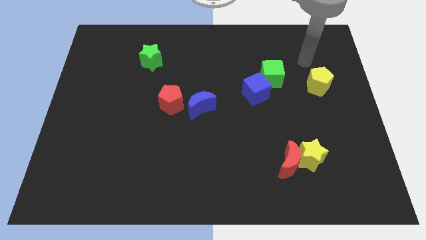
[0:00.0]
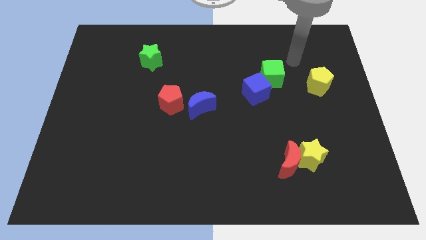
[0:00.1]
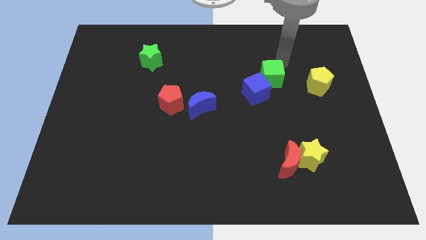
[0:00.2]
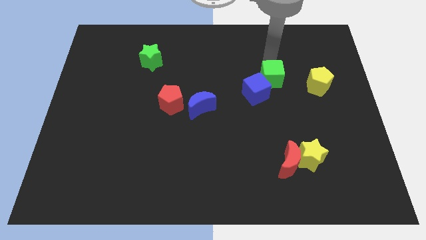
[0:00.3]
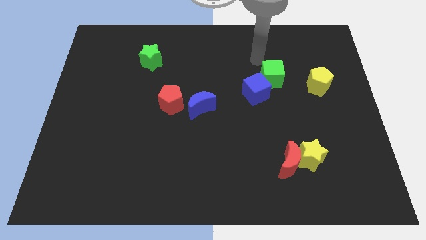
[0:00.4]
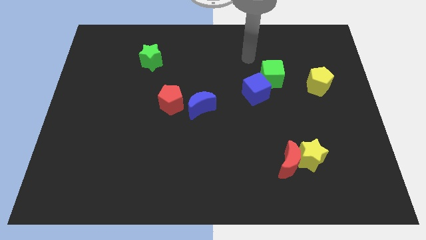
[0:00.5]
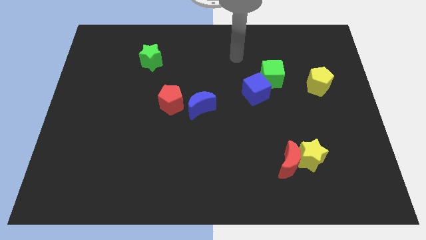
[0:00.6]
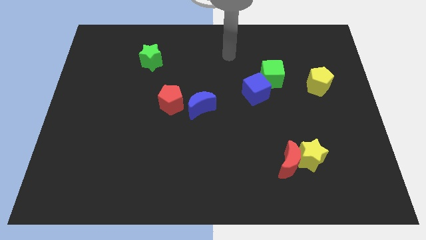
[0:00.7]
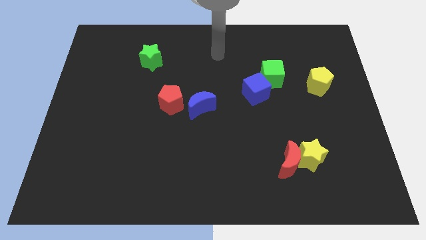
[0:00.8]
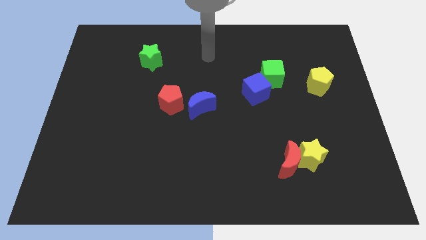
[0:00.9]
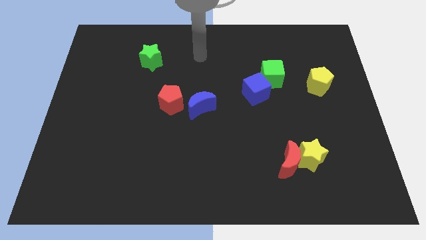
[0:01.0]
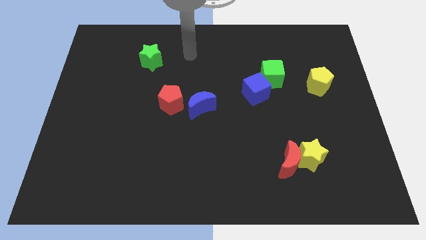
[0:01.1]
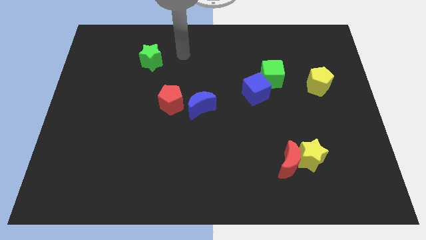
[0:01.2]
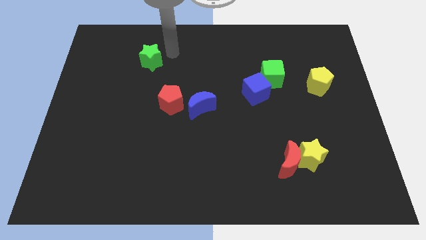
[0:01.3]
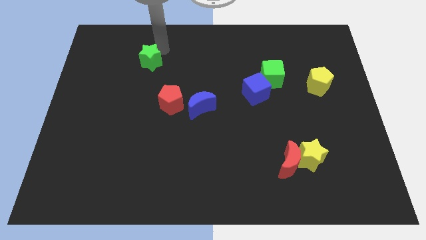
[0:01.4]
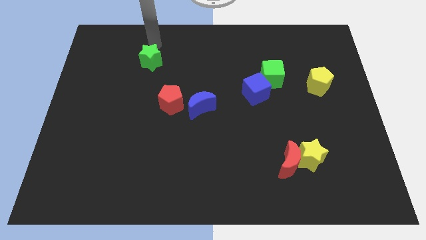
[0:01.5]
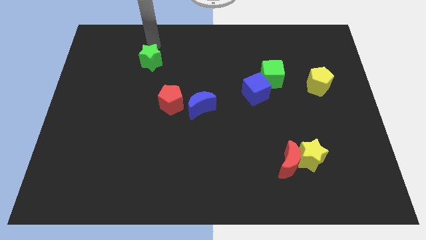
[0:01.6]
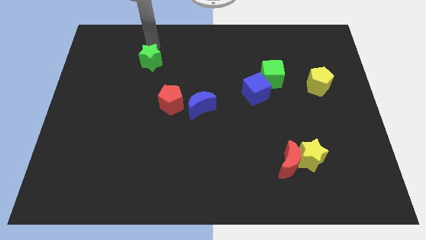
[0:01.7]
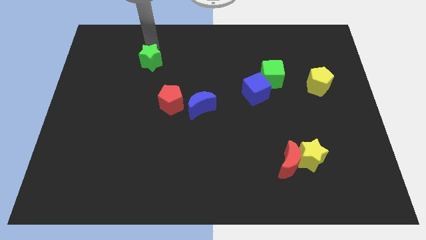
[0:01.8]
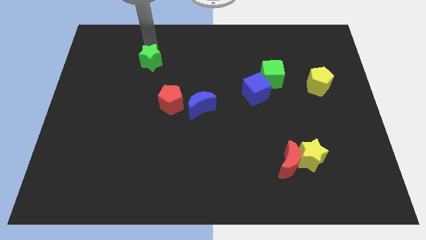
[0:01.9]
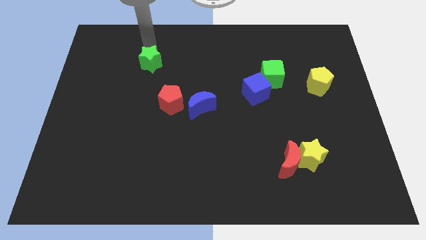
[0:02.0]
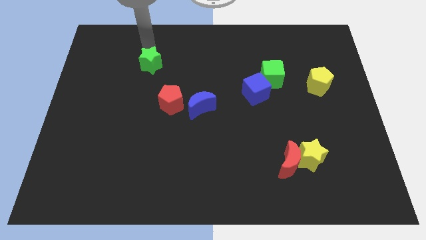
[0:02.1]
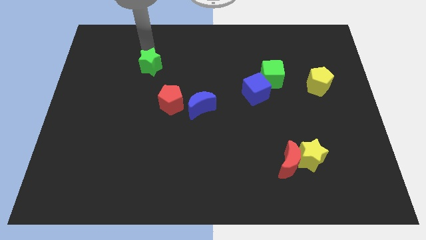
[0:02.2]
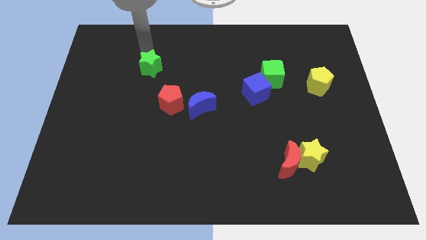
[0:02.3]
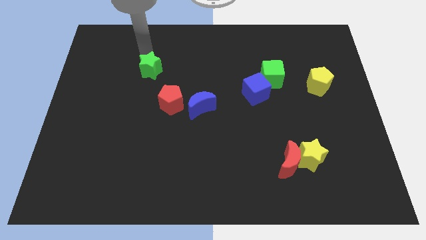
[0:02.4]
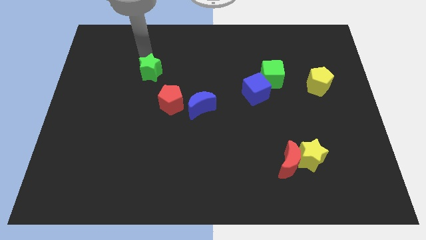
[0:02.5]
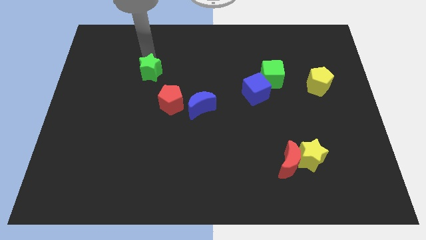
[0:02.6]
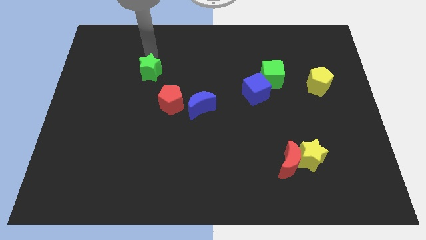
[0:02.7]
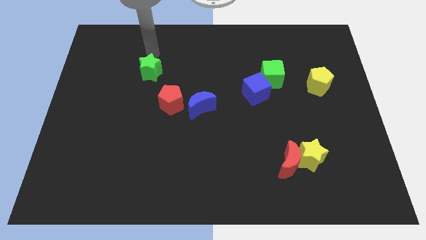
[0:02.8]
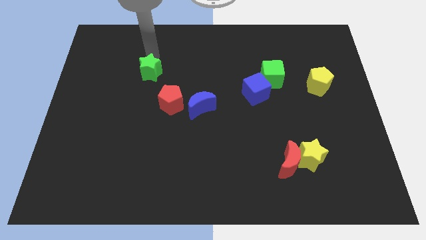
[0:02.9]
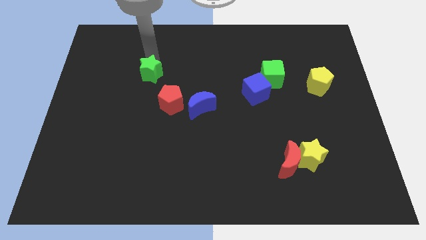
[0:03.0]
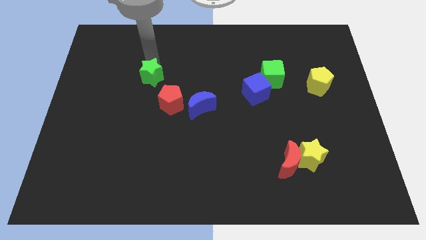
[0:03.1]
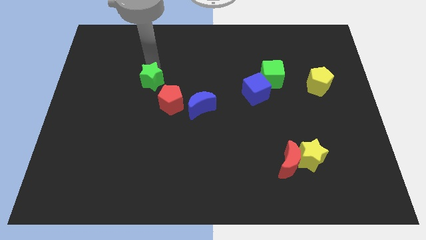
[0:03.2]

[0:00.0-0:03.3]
move the green star downwards slightly

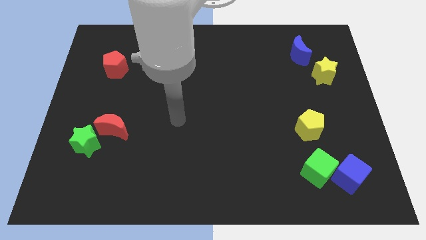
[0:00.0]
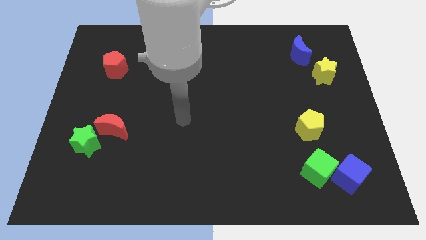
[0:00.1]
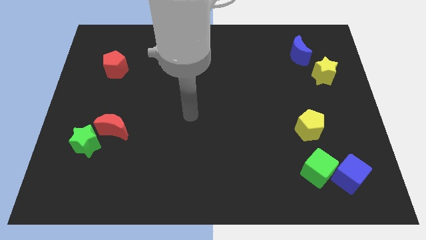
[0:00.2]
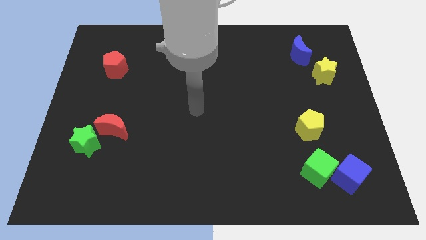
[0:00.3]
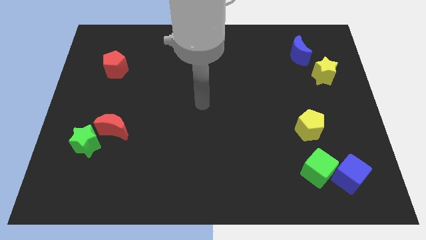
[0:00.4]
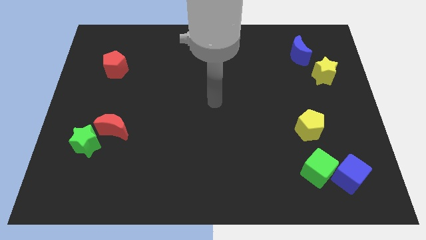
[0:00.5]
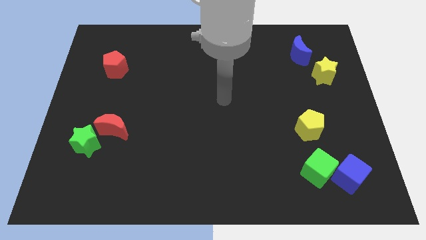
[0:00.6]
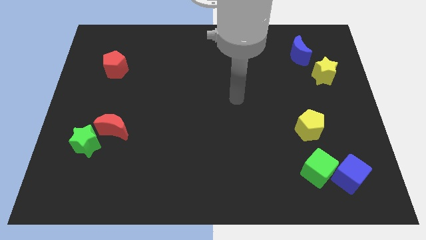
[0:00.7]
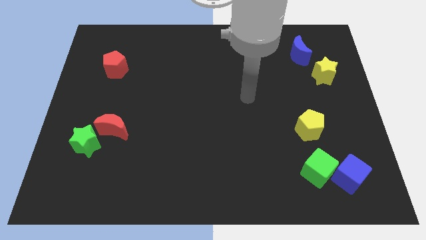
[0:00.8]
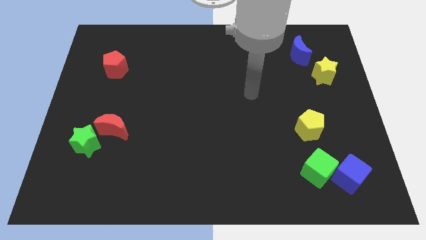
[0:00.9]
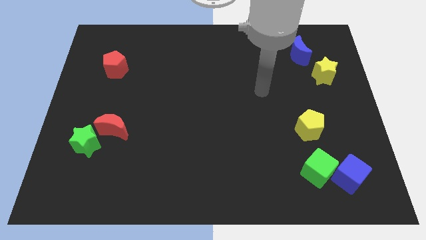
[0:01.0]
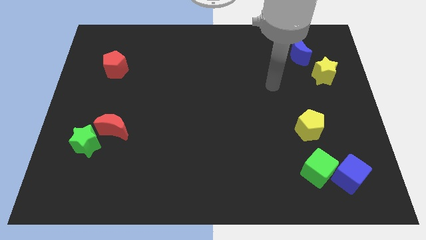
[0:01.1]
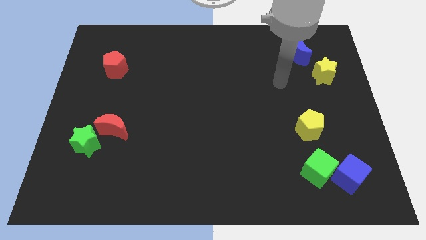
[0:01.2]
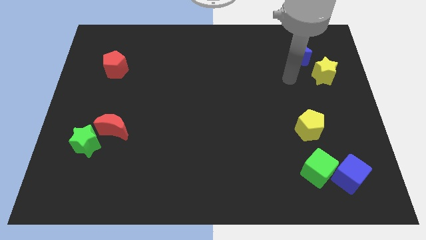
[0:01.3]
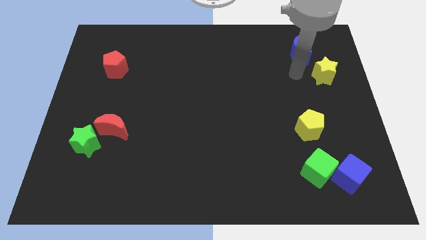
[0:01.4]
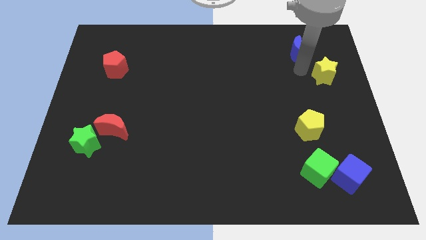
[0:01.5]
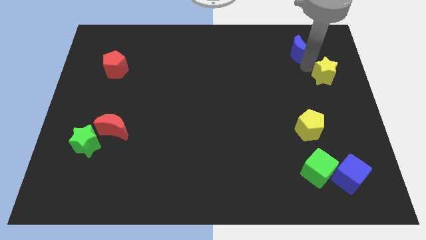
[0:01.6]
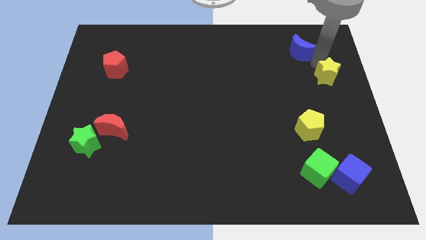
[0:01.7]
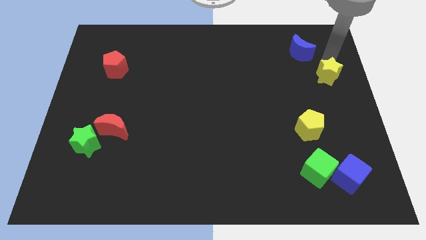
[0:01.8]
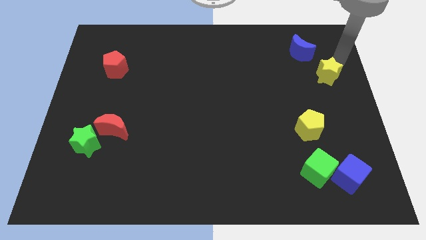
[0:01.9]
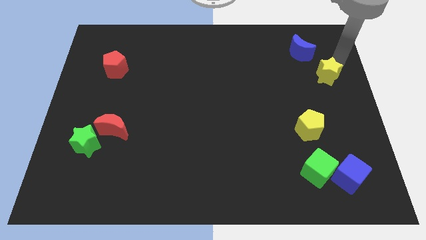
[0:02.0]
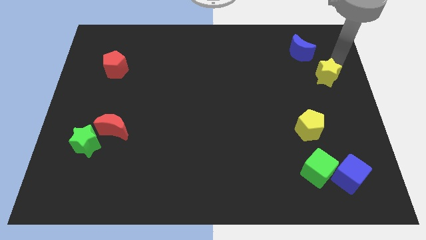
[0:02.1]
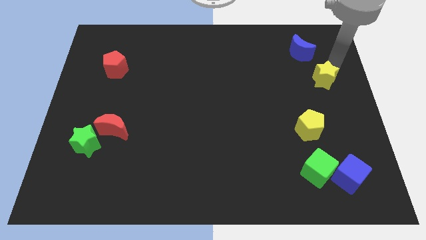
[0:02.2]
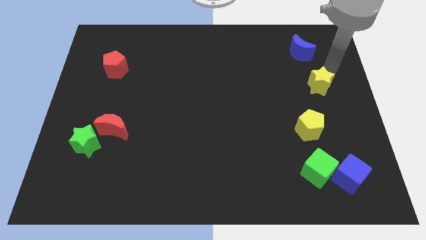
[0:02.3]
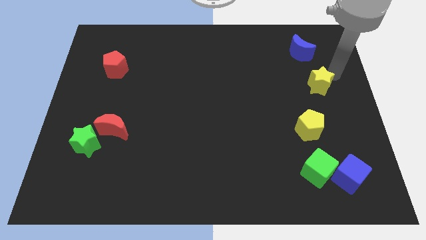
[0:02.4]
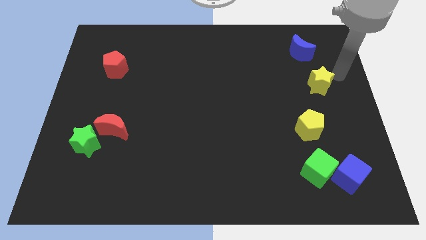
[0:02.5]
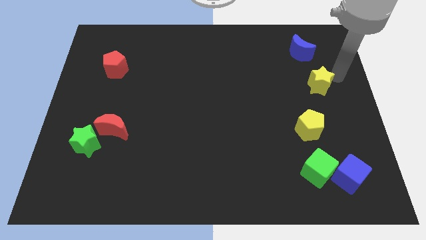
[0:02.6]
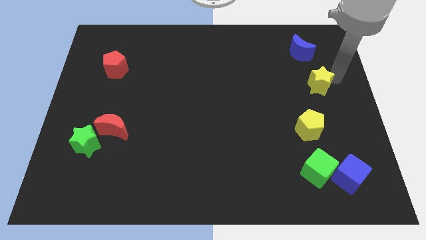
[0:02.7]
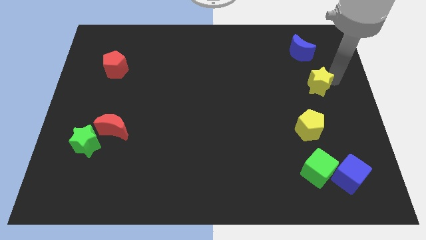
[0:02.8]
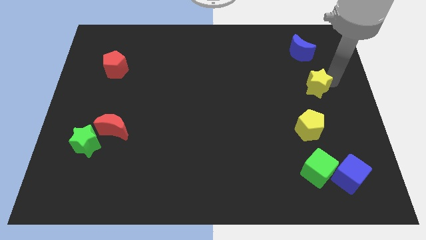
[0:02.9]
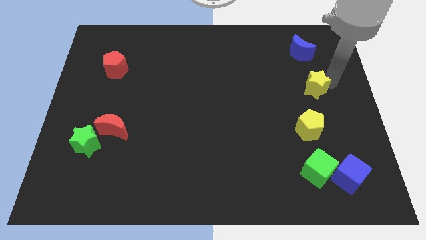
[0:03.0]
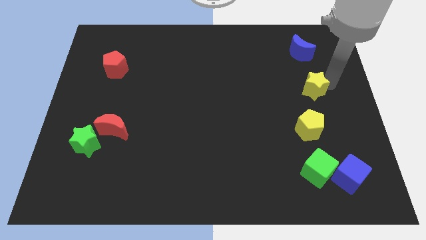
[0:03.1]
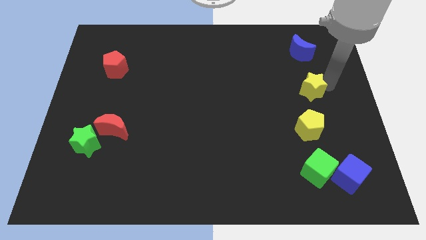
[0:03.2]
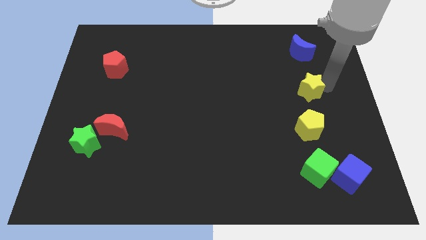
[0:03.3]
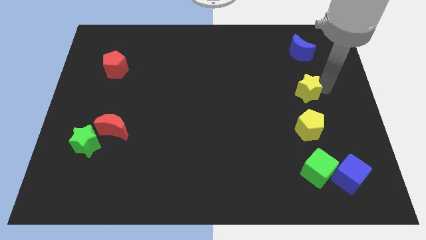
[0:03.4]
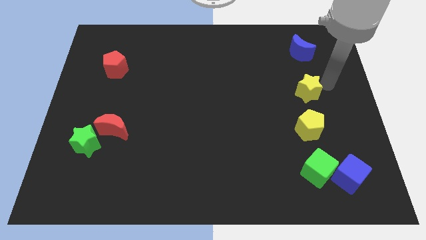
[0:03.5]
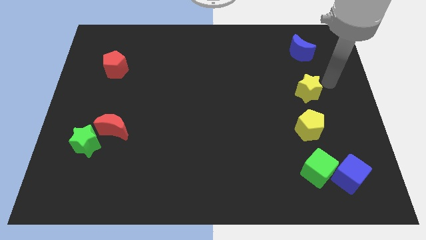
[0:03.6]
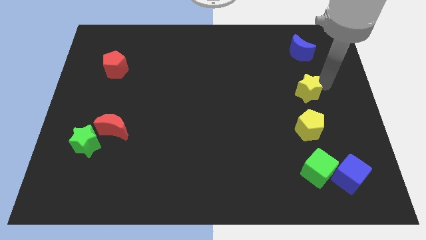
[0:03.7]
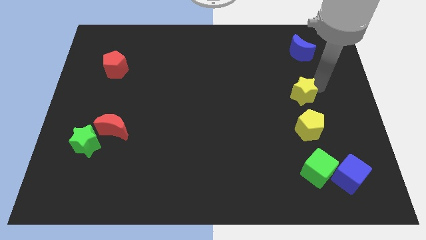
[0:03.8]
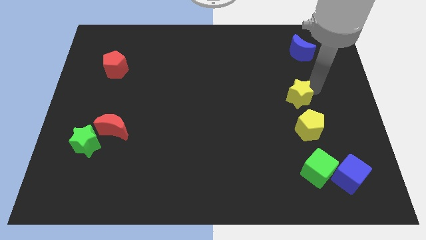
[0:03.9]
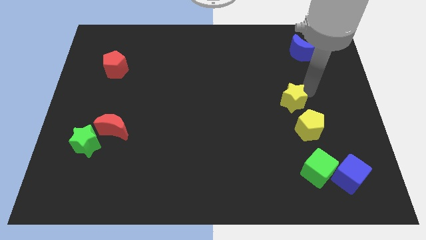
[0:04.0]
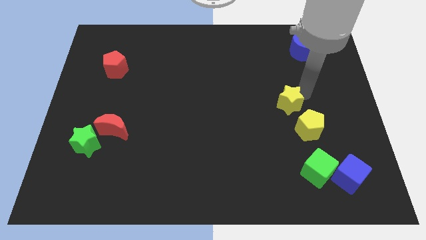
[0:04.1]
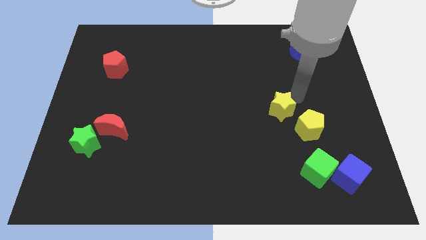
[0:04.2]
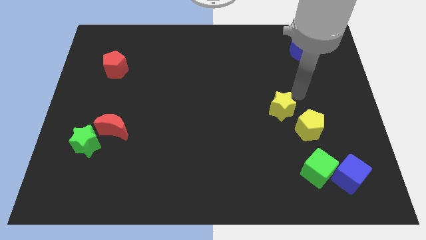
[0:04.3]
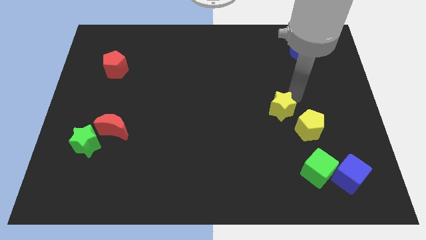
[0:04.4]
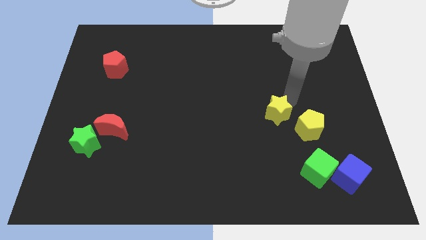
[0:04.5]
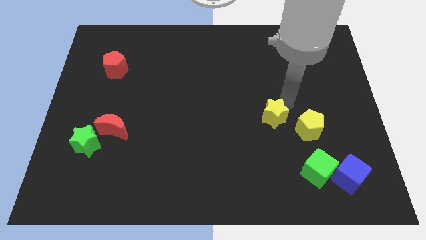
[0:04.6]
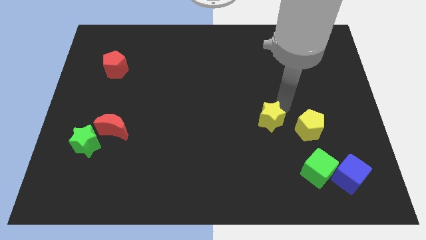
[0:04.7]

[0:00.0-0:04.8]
push the yellow star down and left diagonally

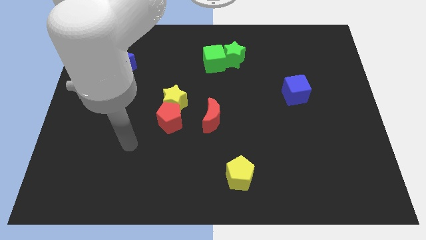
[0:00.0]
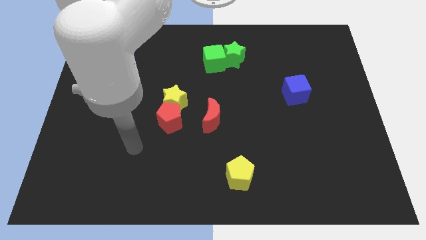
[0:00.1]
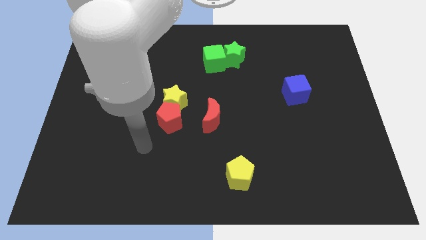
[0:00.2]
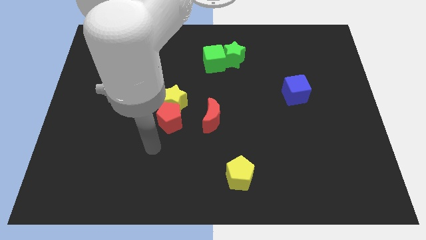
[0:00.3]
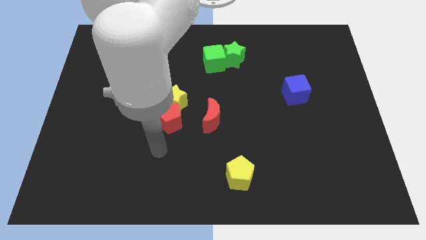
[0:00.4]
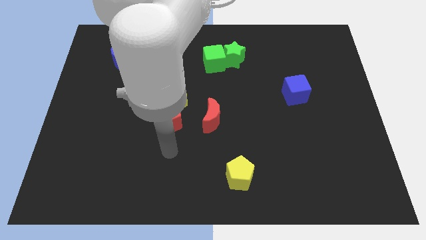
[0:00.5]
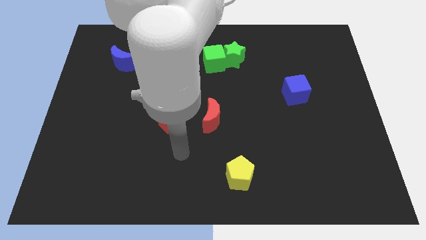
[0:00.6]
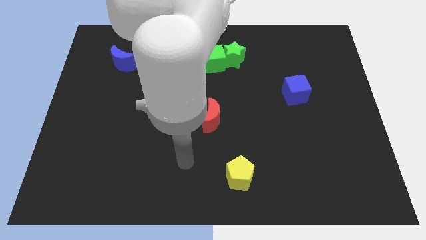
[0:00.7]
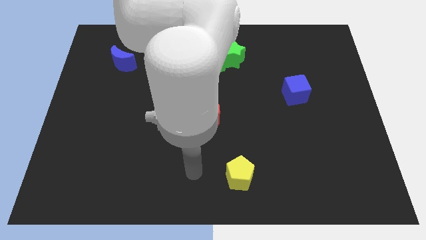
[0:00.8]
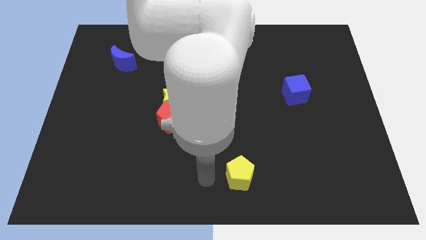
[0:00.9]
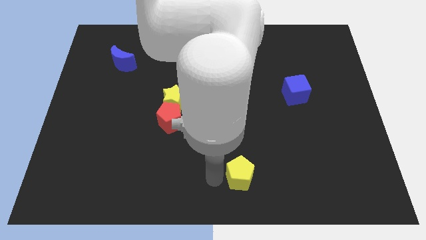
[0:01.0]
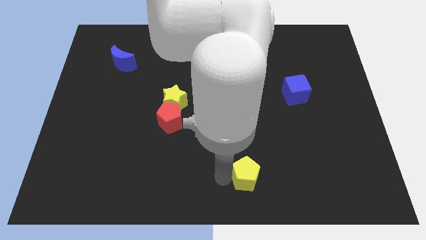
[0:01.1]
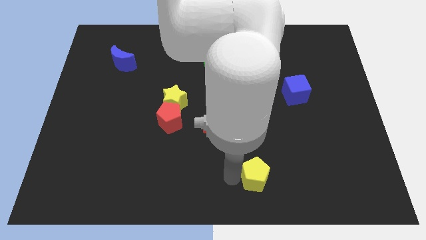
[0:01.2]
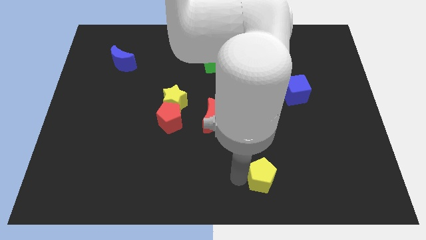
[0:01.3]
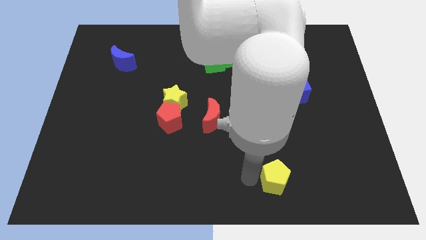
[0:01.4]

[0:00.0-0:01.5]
push the yellow pentagon a bit right
